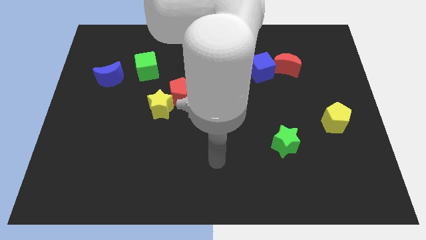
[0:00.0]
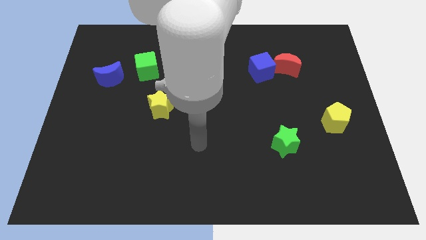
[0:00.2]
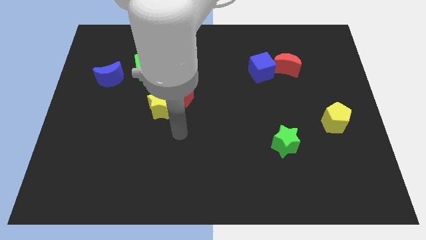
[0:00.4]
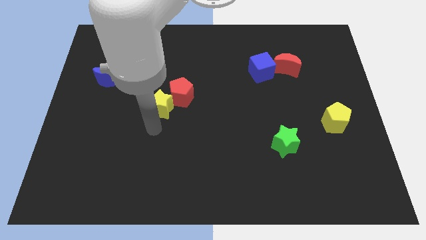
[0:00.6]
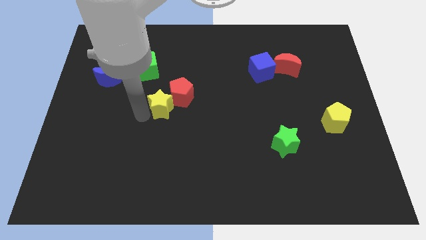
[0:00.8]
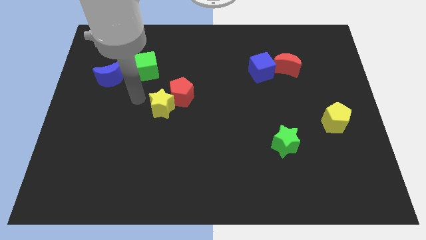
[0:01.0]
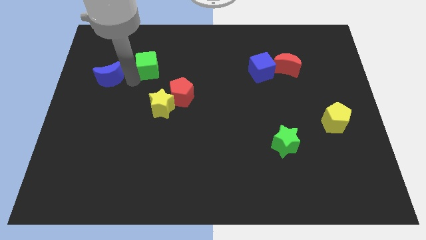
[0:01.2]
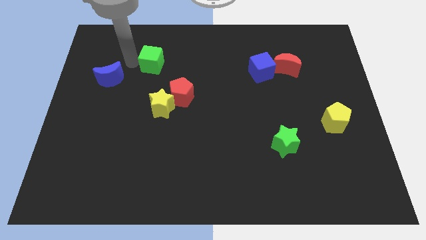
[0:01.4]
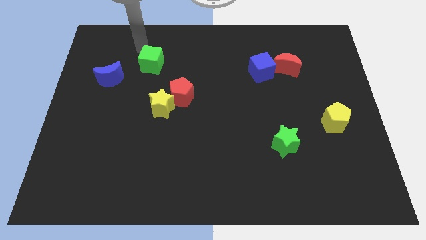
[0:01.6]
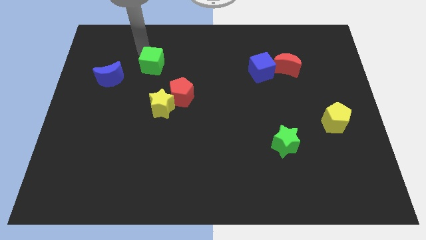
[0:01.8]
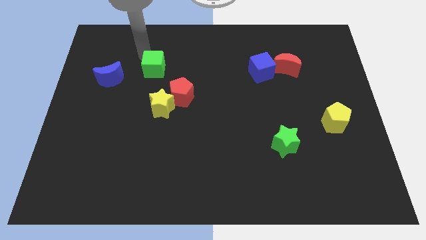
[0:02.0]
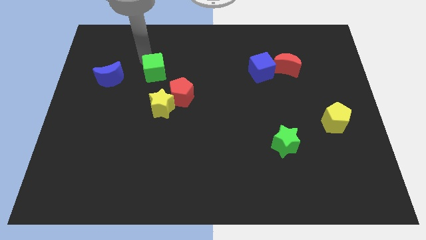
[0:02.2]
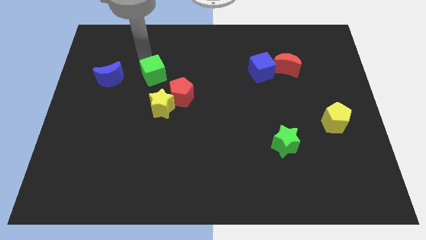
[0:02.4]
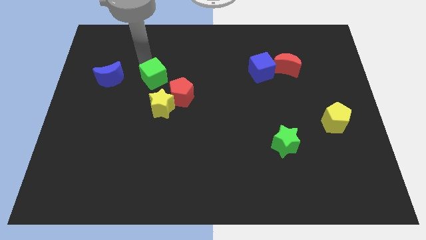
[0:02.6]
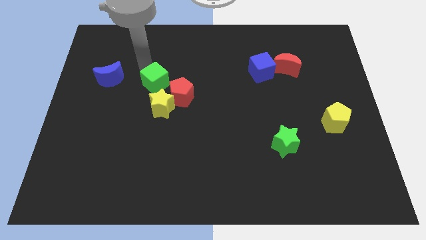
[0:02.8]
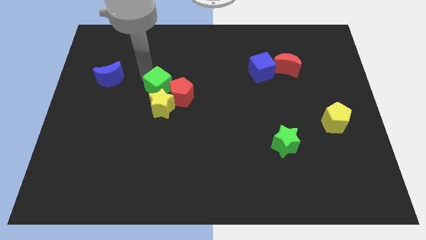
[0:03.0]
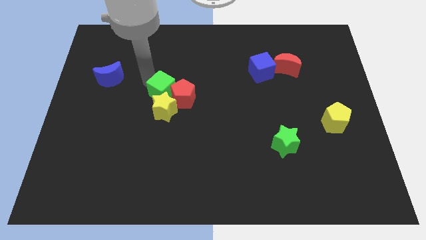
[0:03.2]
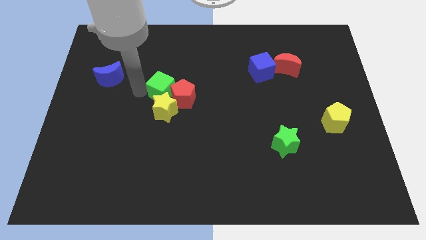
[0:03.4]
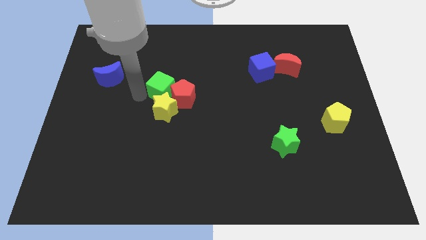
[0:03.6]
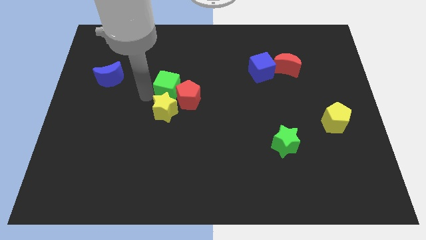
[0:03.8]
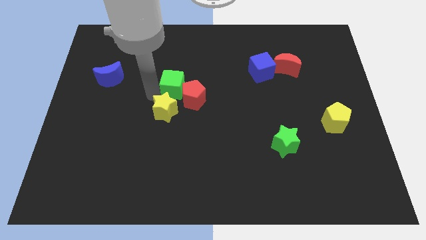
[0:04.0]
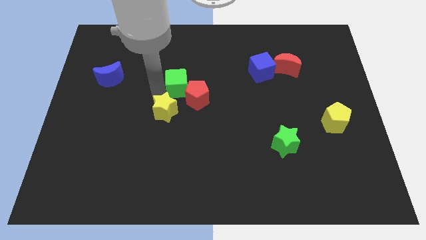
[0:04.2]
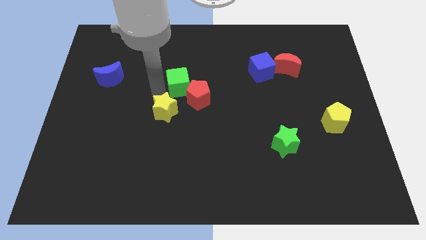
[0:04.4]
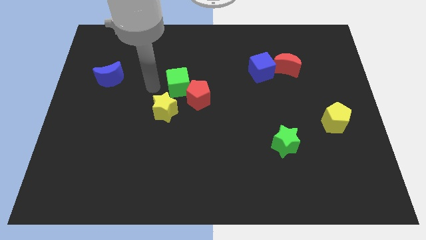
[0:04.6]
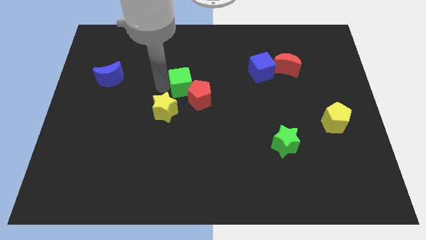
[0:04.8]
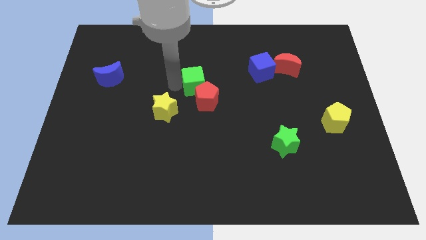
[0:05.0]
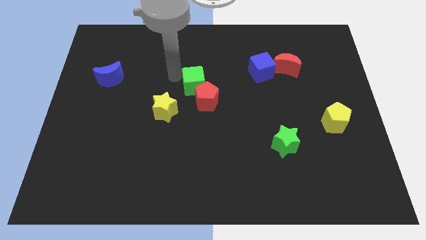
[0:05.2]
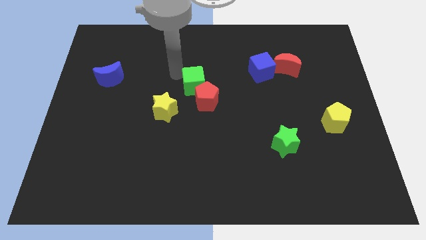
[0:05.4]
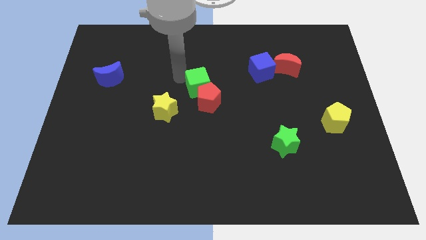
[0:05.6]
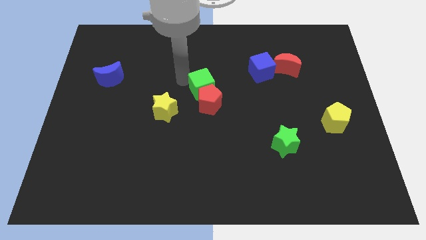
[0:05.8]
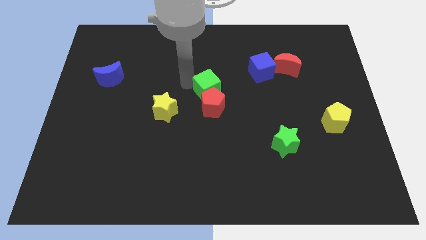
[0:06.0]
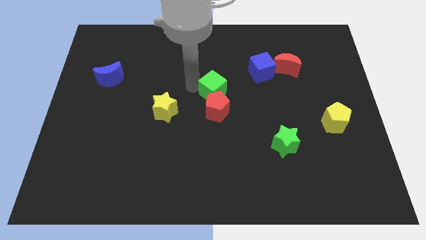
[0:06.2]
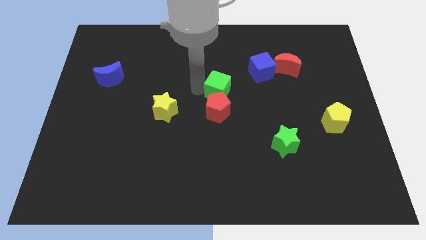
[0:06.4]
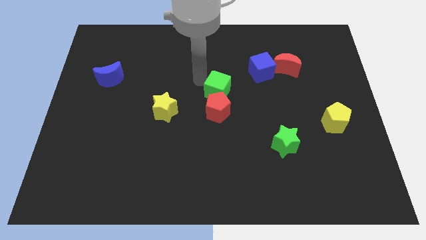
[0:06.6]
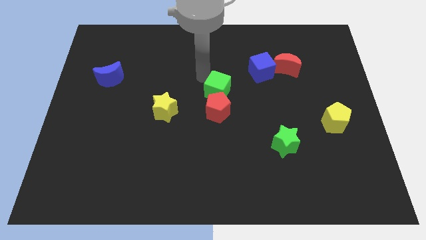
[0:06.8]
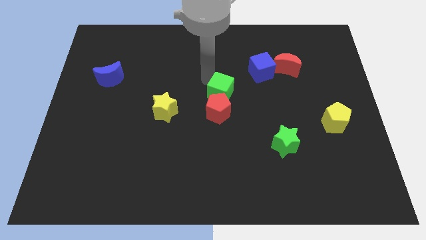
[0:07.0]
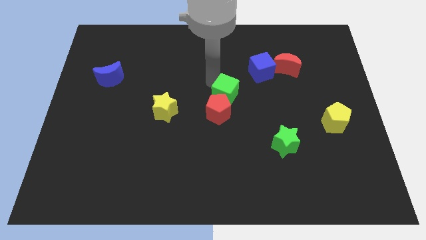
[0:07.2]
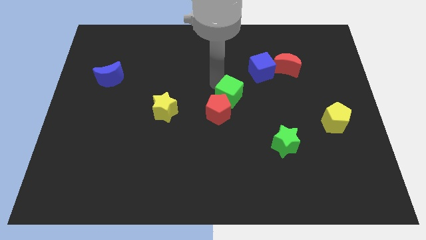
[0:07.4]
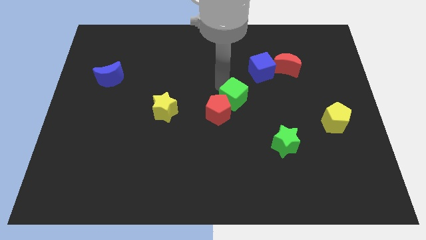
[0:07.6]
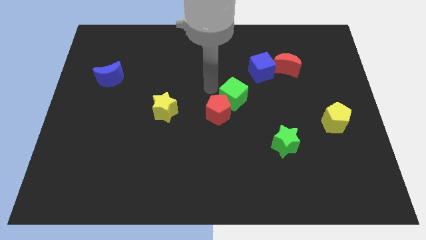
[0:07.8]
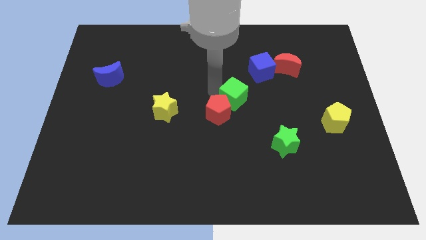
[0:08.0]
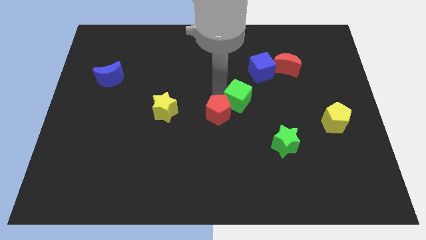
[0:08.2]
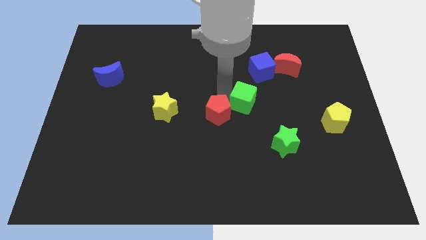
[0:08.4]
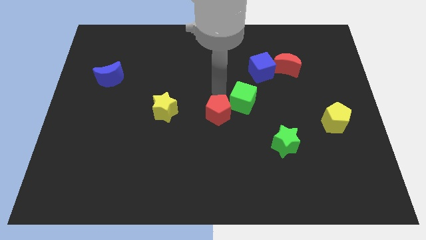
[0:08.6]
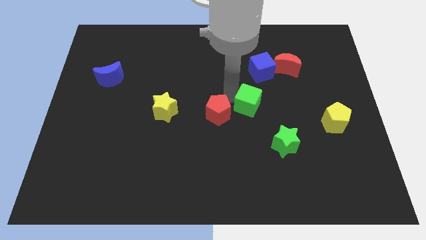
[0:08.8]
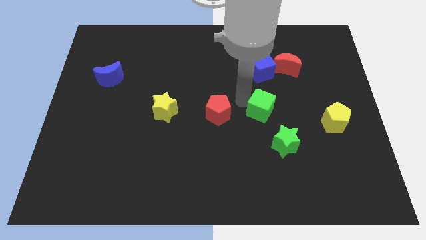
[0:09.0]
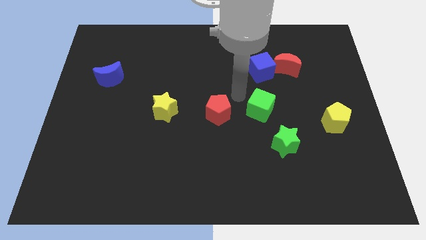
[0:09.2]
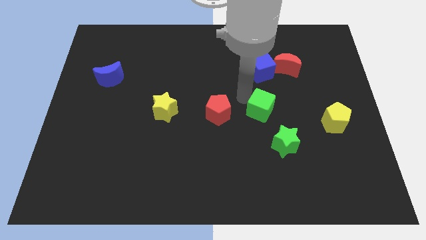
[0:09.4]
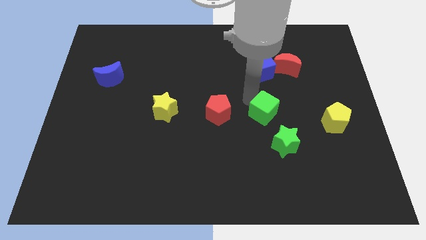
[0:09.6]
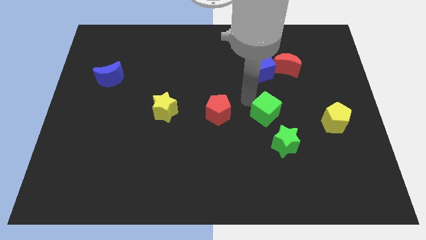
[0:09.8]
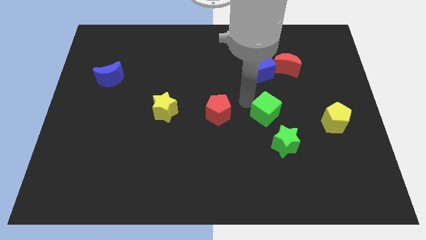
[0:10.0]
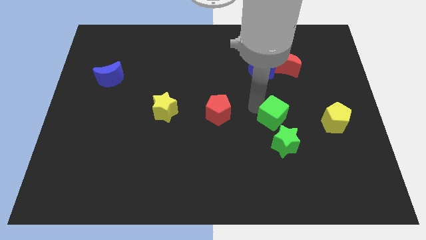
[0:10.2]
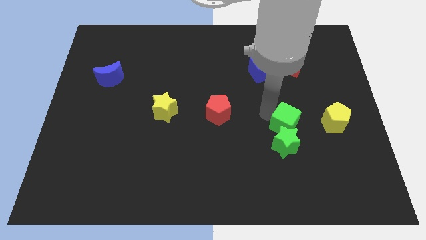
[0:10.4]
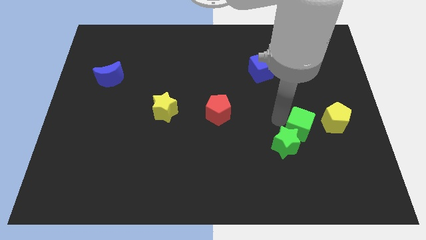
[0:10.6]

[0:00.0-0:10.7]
move the green cube to the bottom left side of the yellow pentagon

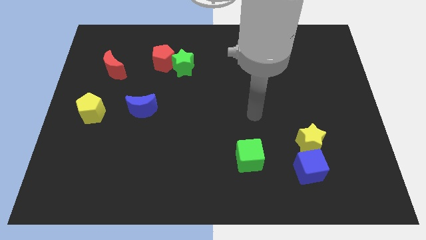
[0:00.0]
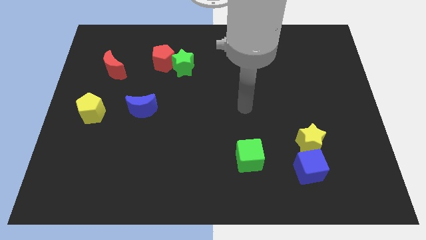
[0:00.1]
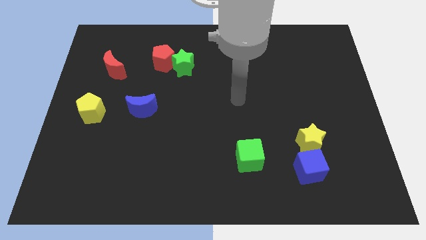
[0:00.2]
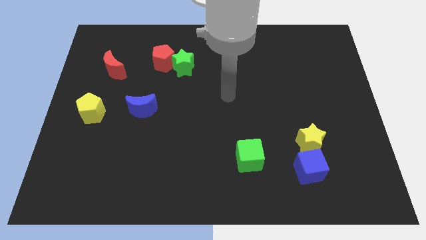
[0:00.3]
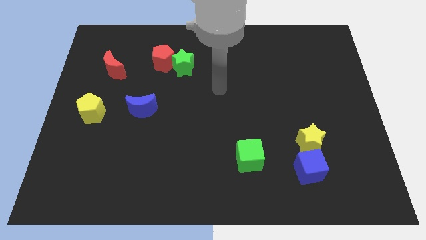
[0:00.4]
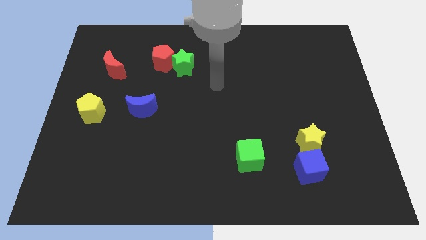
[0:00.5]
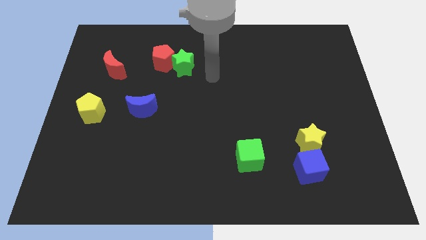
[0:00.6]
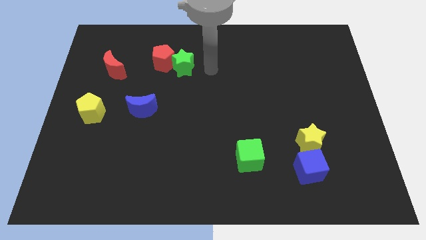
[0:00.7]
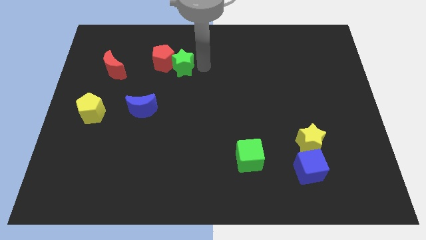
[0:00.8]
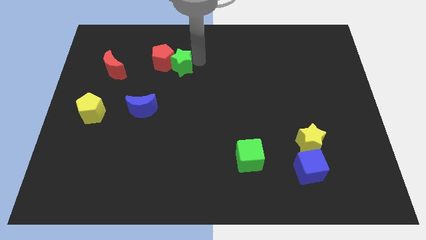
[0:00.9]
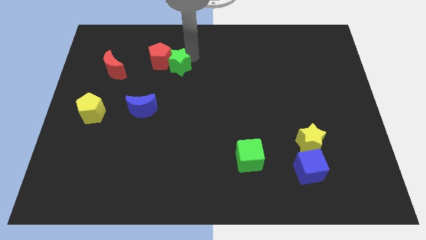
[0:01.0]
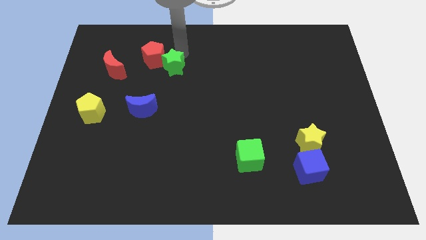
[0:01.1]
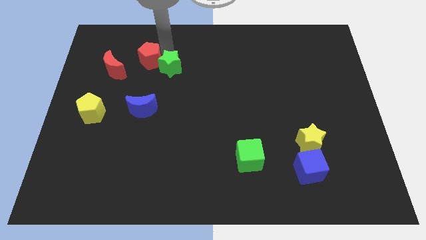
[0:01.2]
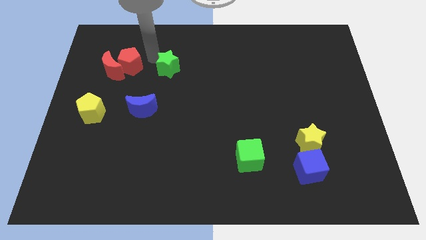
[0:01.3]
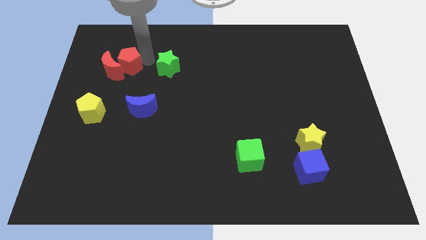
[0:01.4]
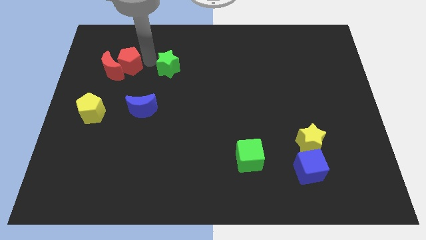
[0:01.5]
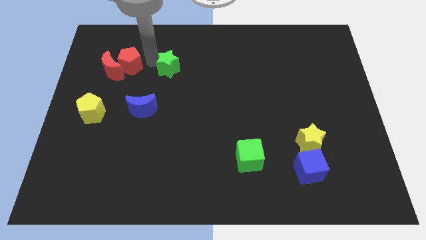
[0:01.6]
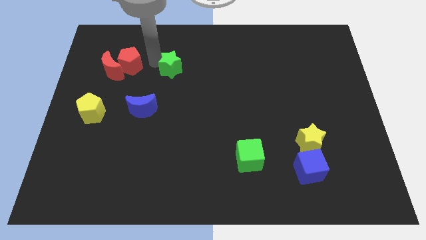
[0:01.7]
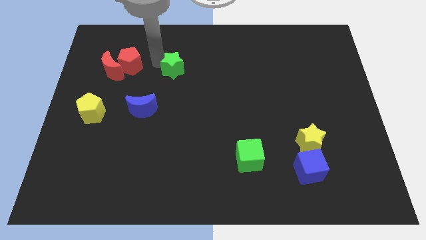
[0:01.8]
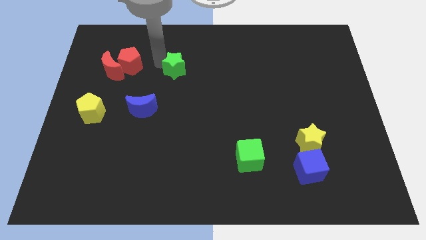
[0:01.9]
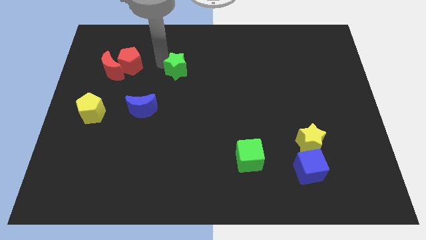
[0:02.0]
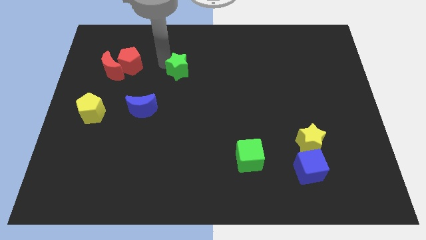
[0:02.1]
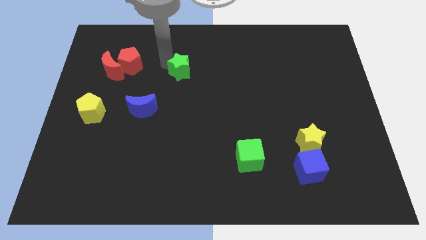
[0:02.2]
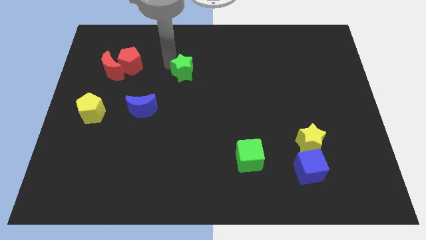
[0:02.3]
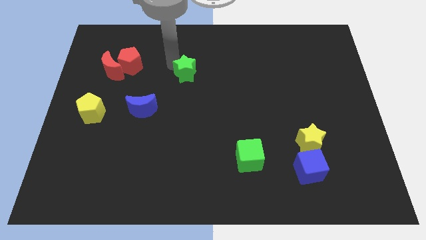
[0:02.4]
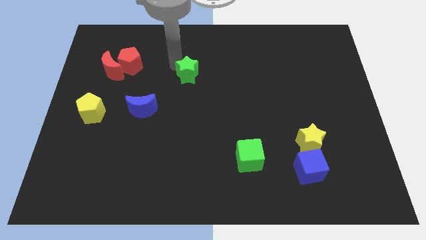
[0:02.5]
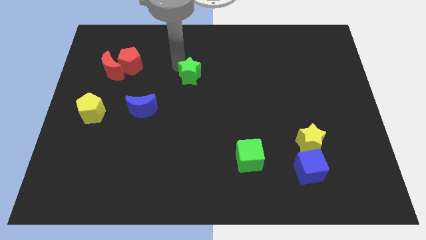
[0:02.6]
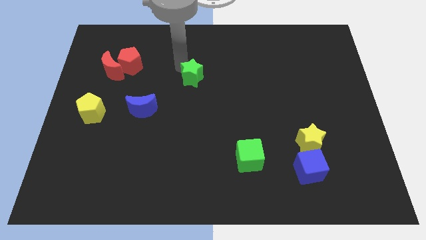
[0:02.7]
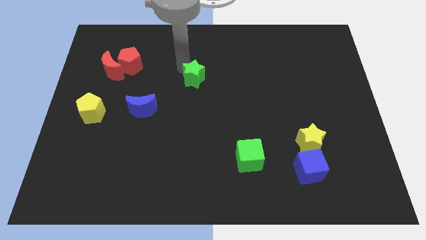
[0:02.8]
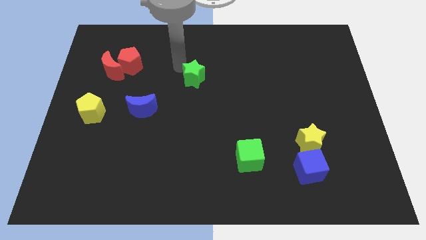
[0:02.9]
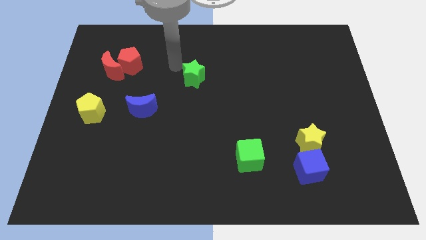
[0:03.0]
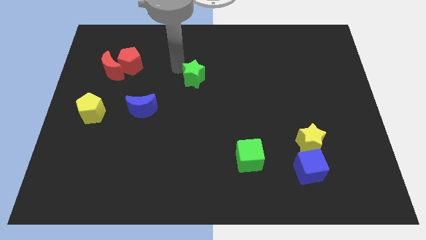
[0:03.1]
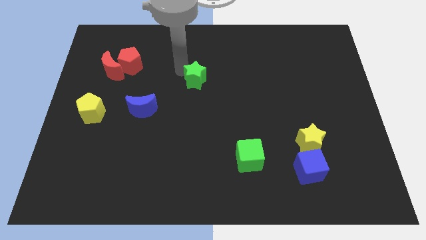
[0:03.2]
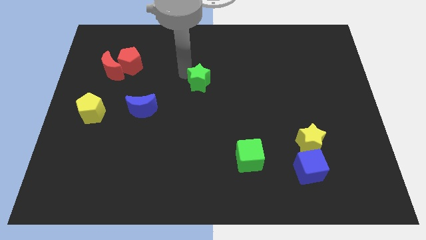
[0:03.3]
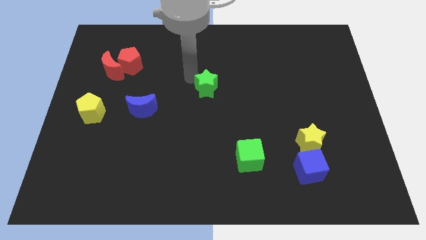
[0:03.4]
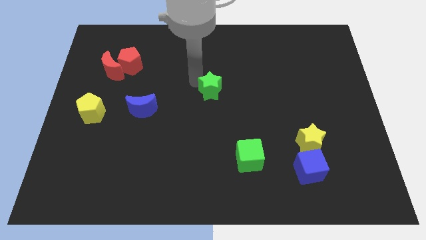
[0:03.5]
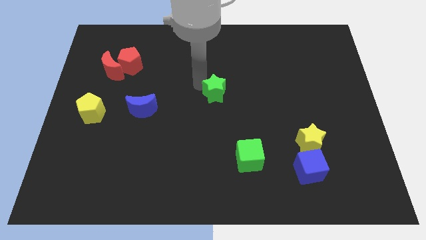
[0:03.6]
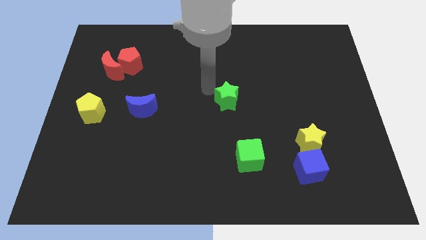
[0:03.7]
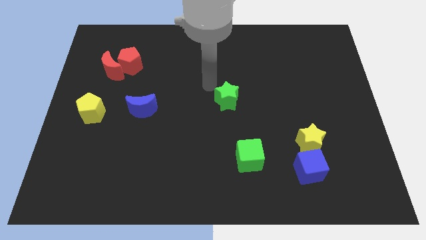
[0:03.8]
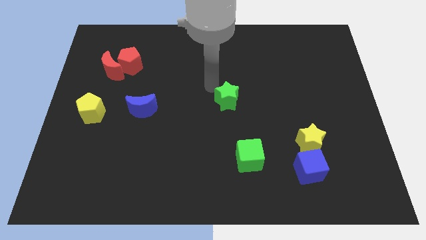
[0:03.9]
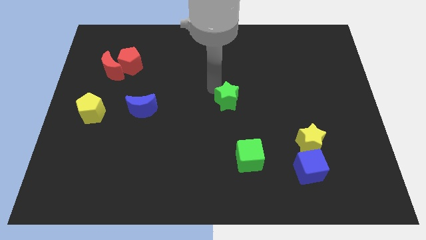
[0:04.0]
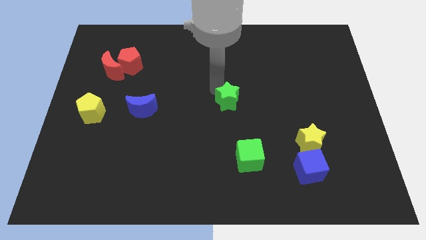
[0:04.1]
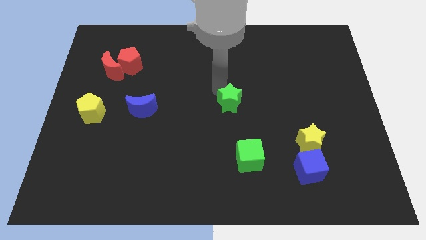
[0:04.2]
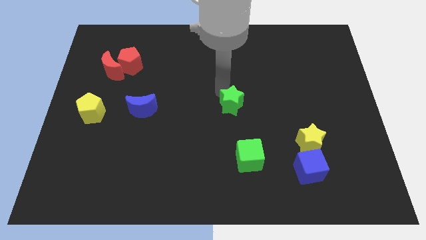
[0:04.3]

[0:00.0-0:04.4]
slide the green star to the top of the green cube
